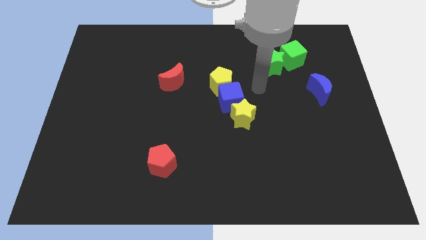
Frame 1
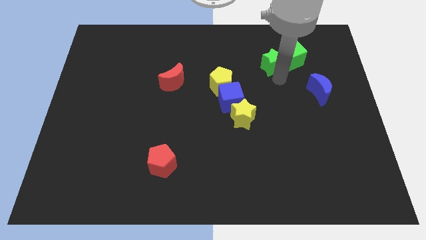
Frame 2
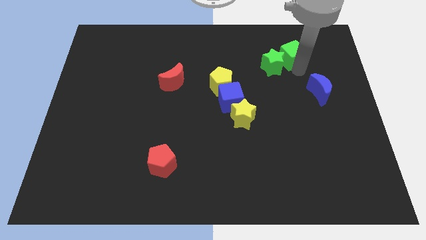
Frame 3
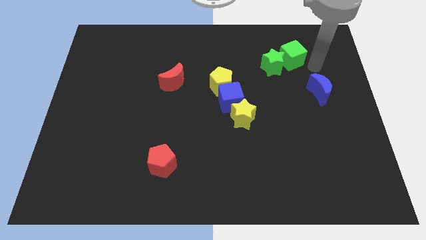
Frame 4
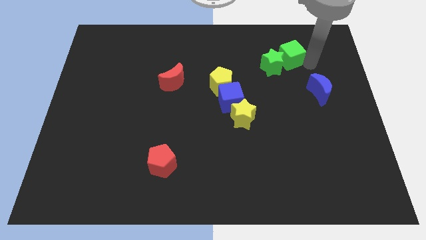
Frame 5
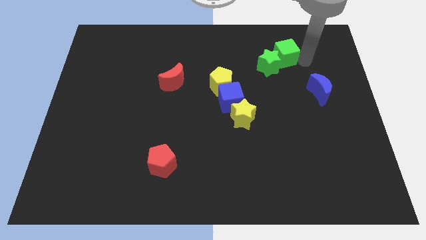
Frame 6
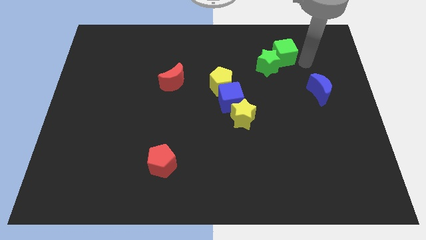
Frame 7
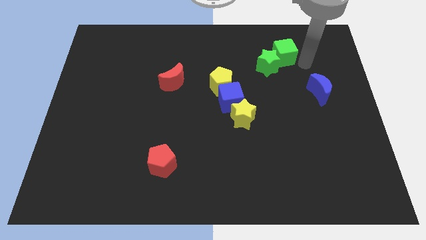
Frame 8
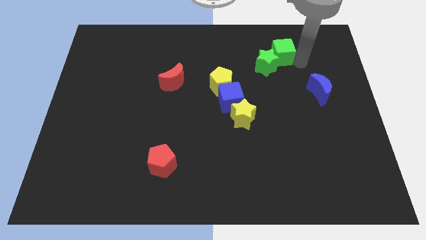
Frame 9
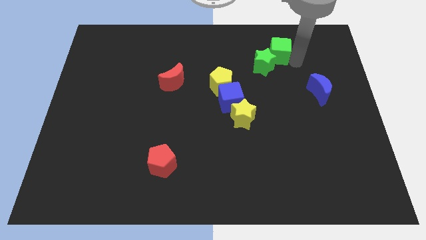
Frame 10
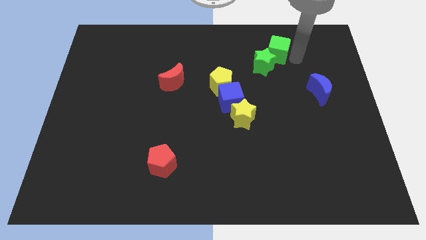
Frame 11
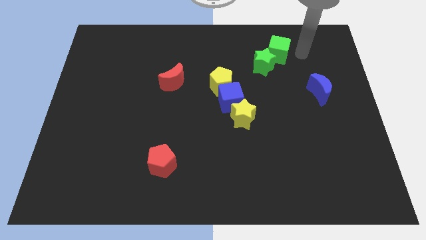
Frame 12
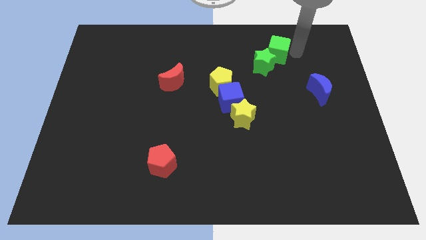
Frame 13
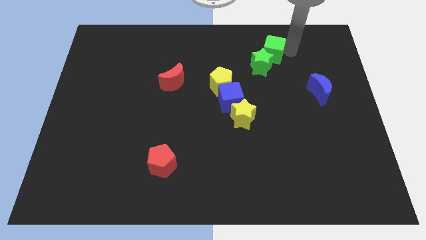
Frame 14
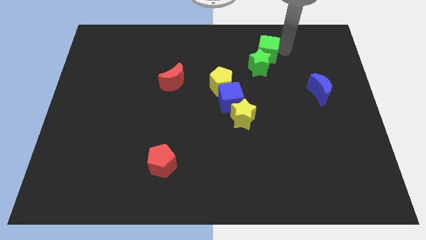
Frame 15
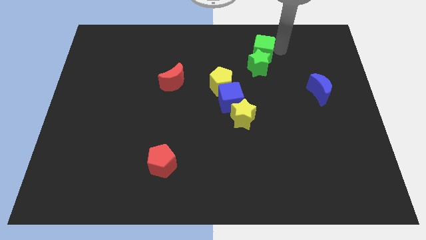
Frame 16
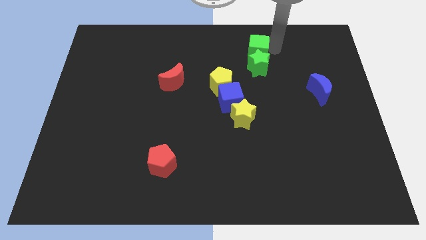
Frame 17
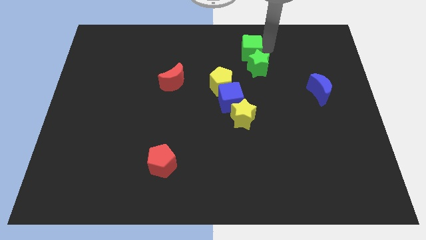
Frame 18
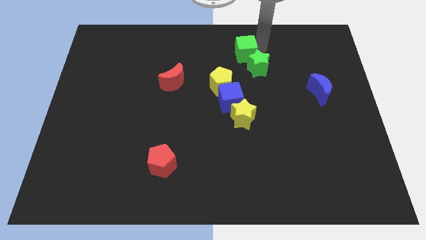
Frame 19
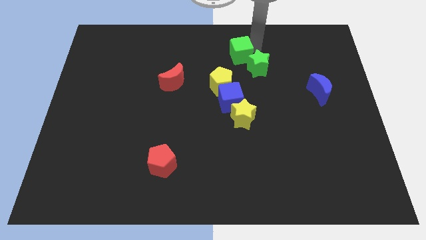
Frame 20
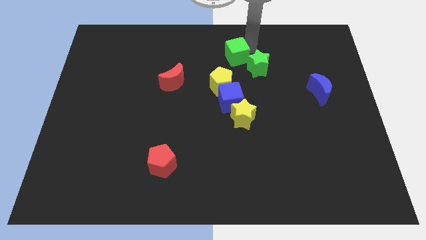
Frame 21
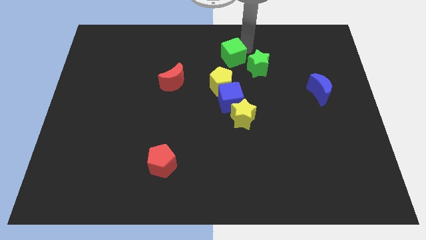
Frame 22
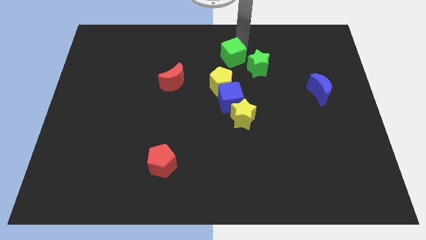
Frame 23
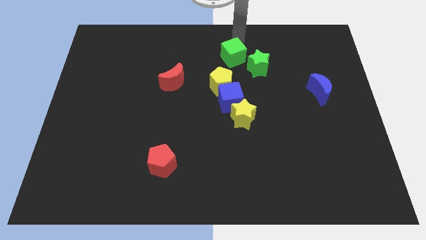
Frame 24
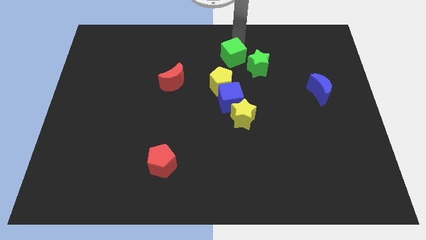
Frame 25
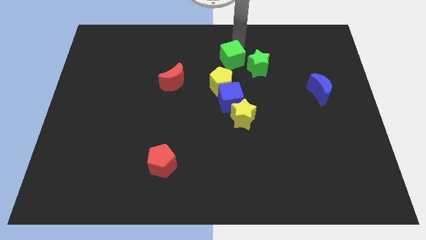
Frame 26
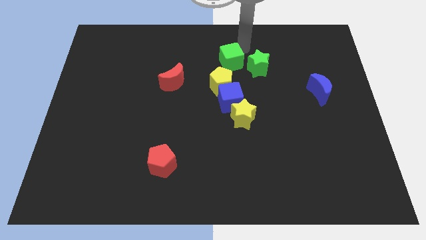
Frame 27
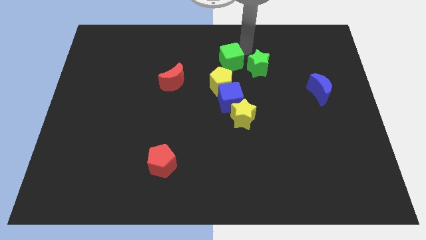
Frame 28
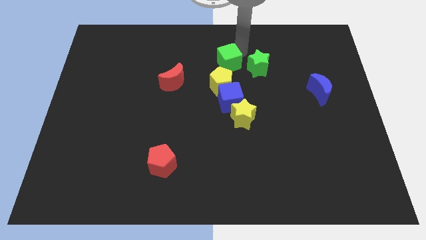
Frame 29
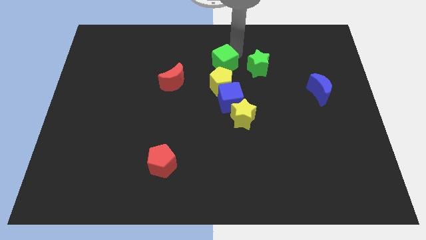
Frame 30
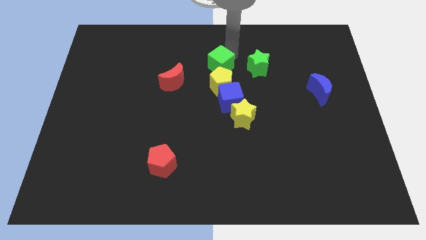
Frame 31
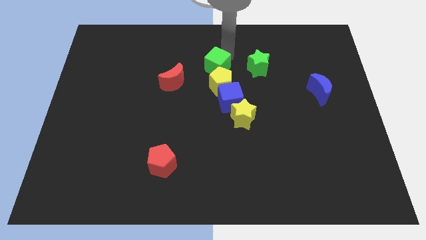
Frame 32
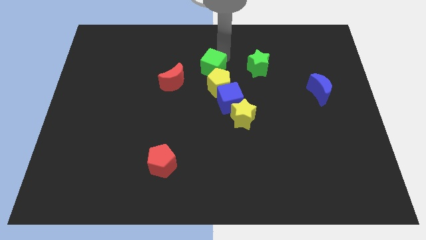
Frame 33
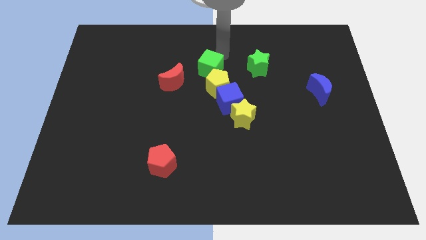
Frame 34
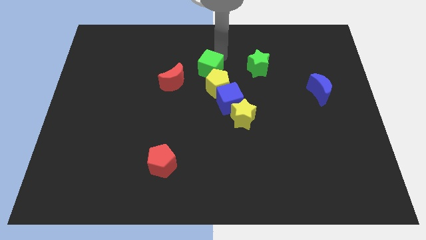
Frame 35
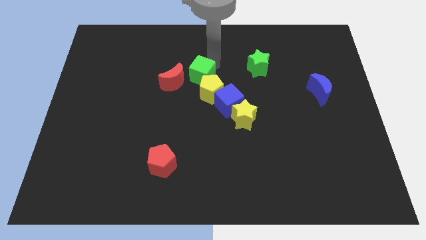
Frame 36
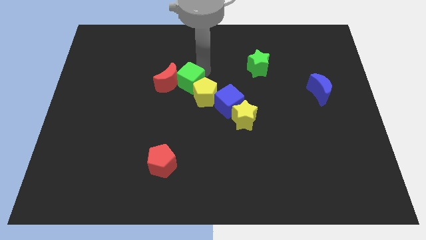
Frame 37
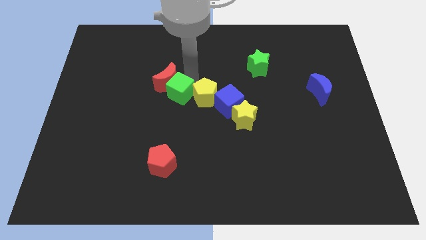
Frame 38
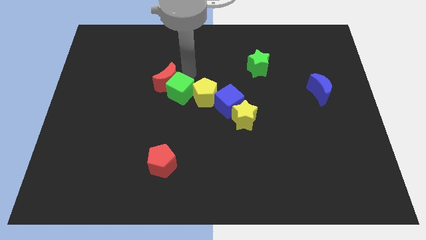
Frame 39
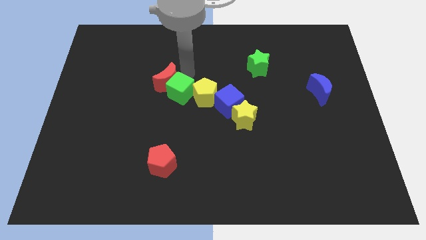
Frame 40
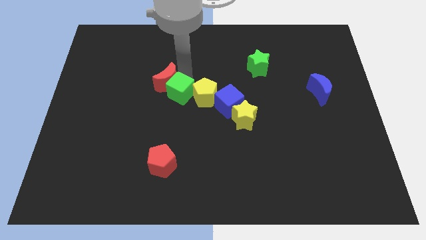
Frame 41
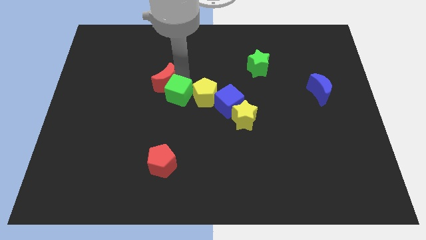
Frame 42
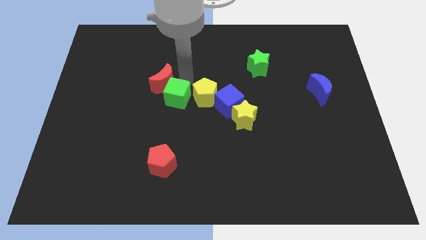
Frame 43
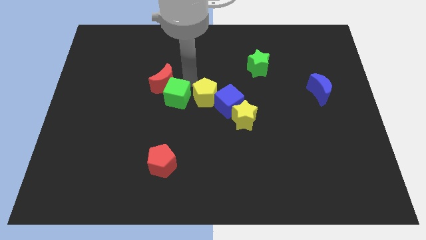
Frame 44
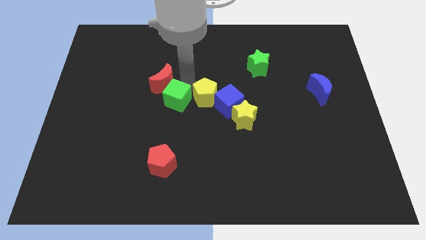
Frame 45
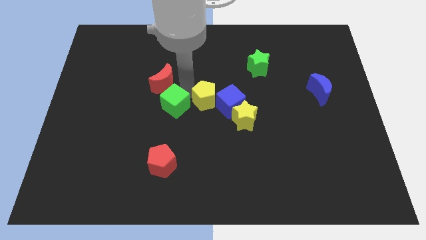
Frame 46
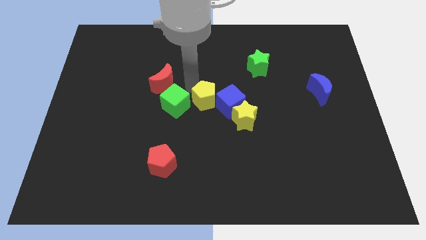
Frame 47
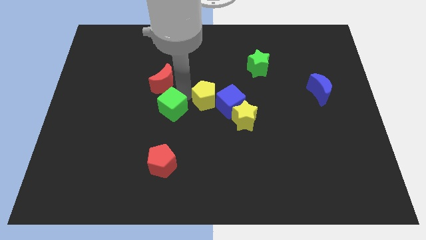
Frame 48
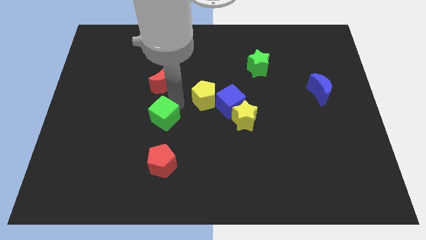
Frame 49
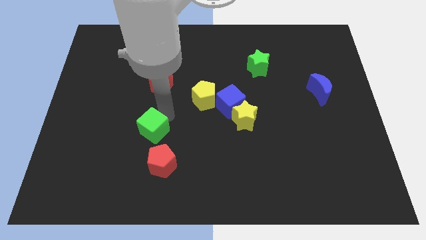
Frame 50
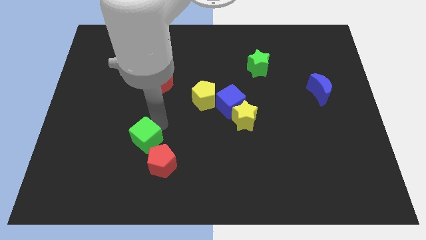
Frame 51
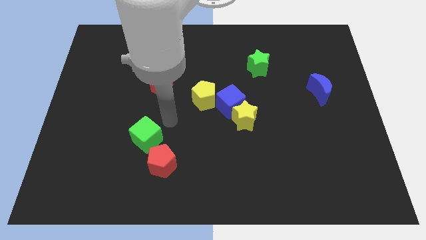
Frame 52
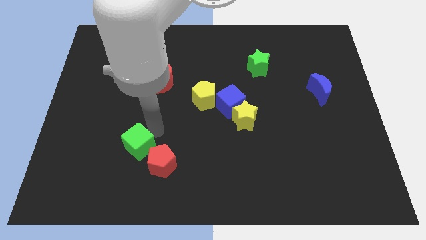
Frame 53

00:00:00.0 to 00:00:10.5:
push the green cube to the left side of the red pentagon

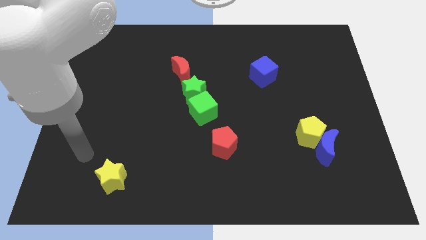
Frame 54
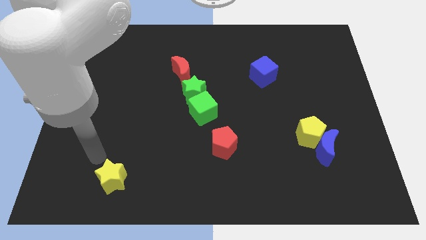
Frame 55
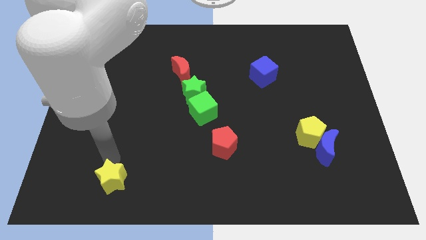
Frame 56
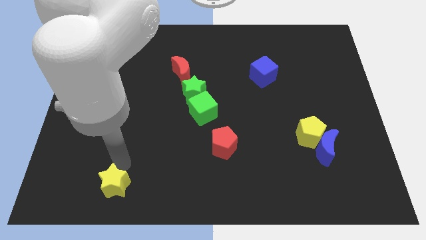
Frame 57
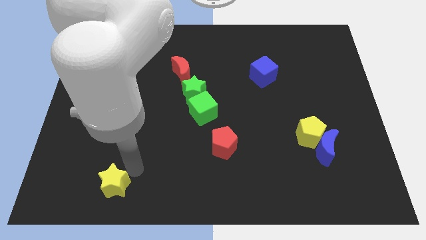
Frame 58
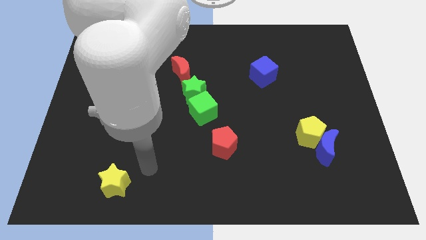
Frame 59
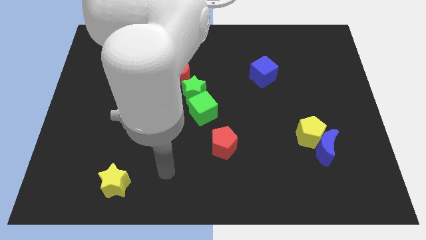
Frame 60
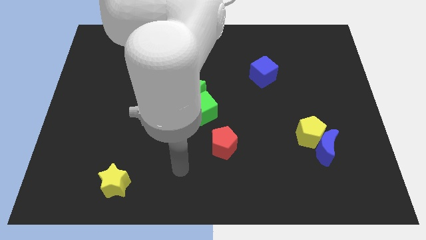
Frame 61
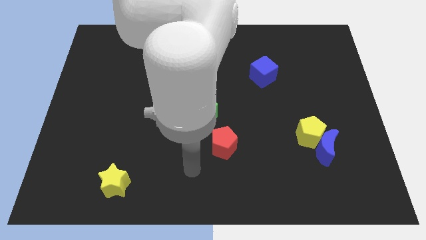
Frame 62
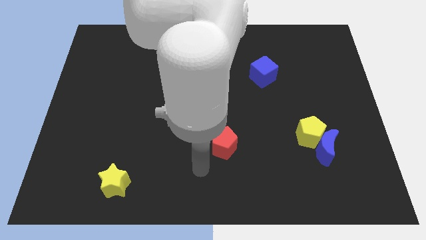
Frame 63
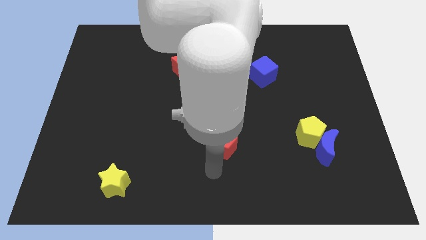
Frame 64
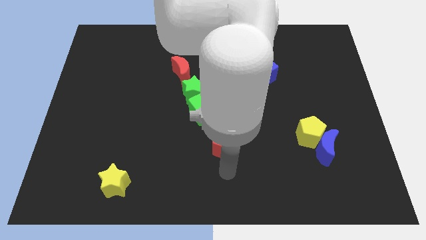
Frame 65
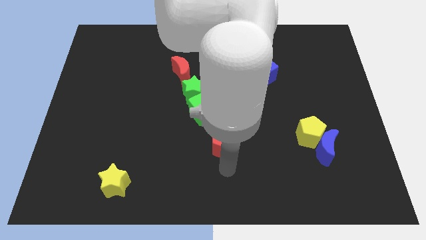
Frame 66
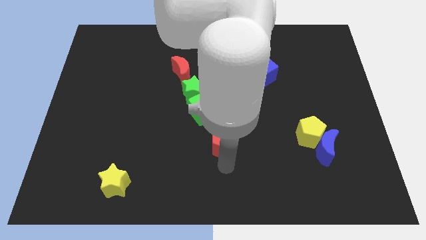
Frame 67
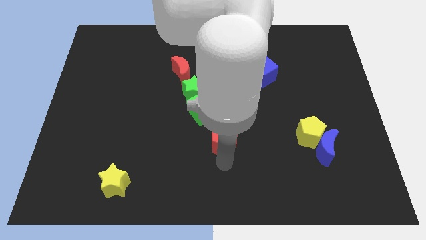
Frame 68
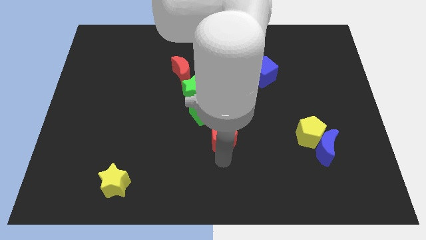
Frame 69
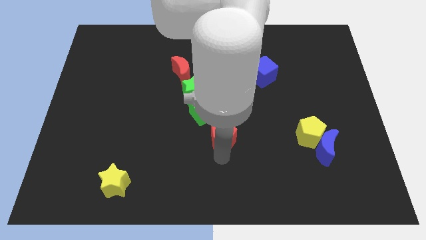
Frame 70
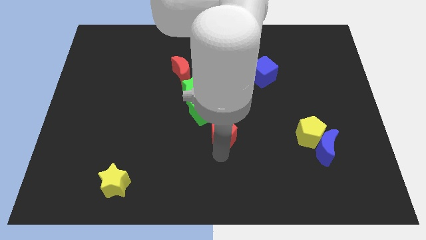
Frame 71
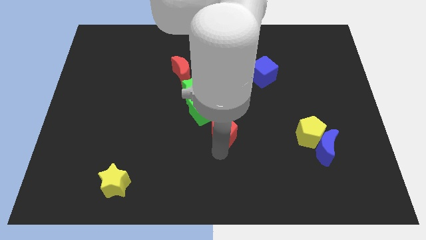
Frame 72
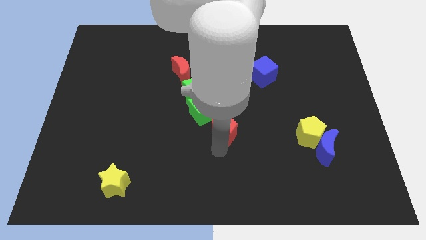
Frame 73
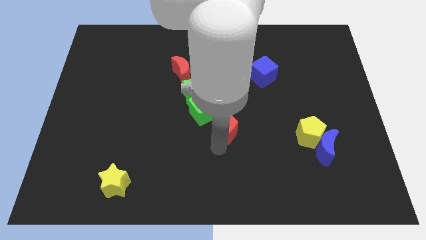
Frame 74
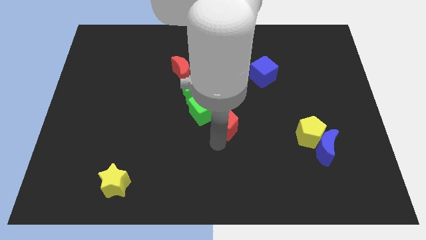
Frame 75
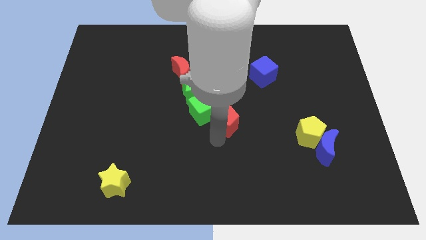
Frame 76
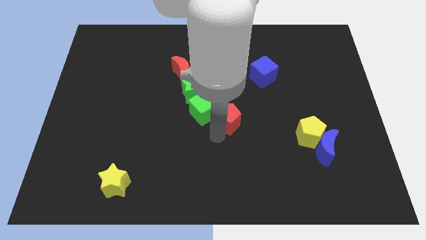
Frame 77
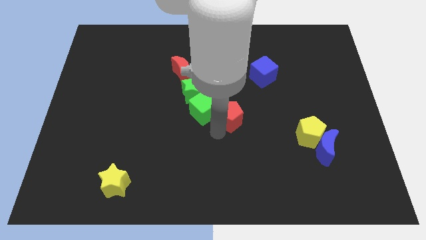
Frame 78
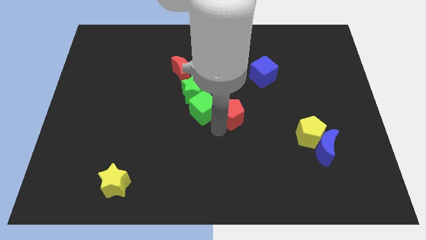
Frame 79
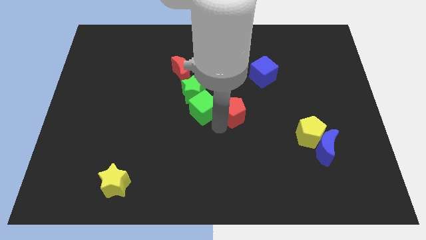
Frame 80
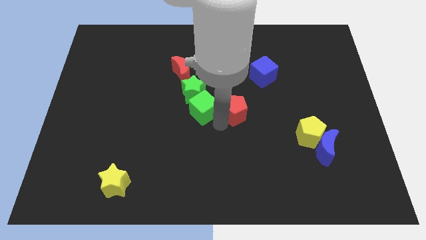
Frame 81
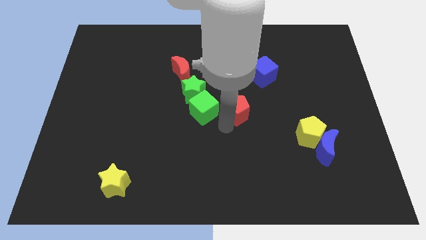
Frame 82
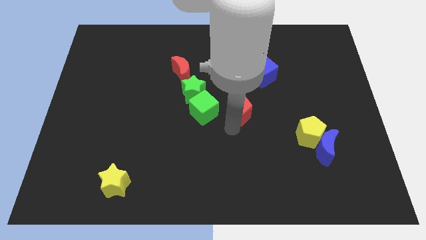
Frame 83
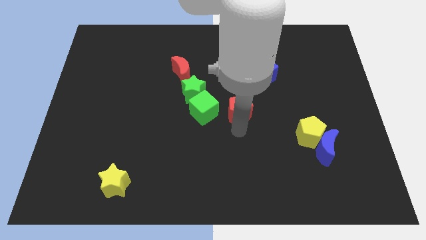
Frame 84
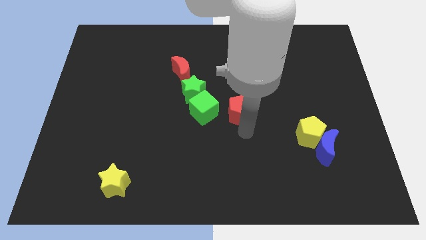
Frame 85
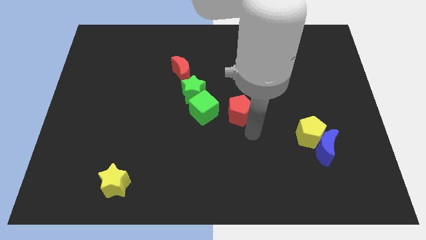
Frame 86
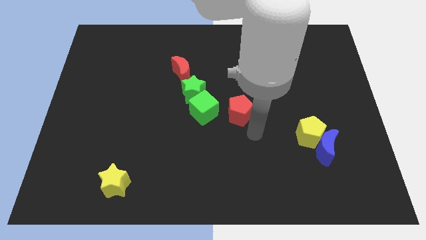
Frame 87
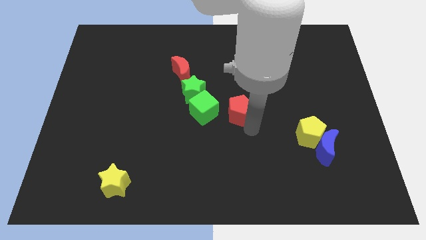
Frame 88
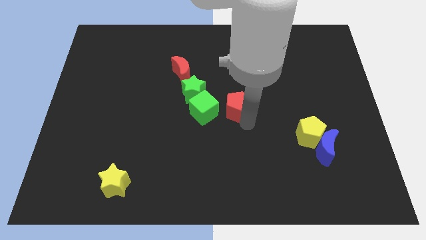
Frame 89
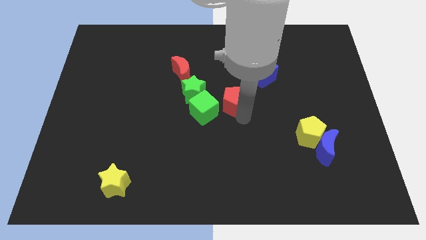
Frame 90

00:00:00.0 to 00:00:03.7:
push the red pentagon to the top right of the green cube
